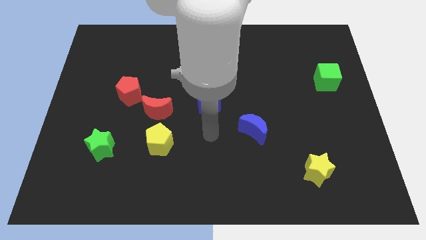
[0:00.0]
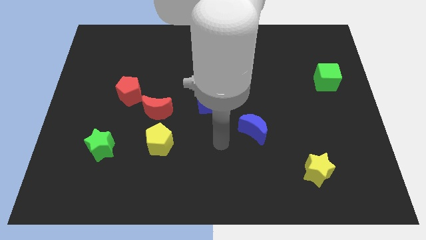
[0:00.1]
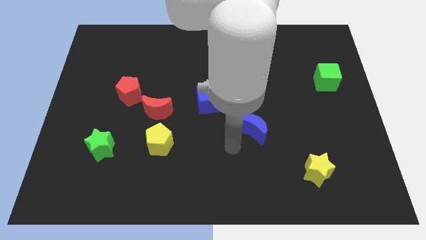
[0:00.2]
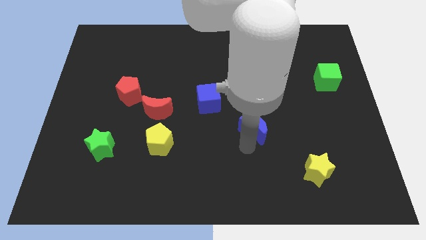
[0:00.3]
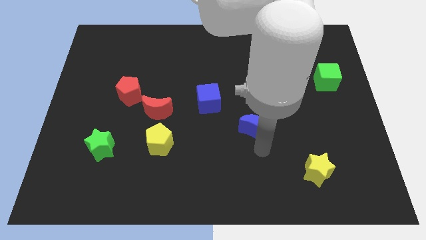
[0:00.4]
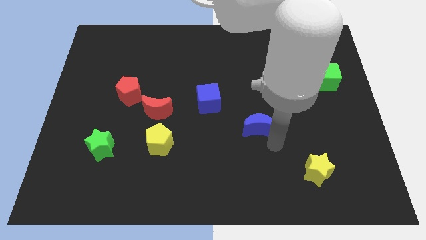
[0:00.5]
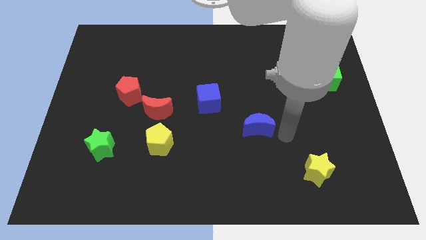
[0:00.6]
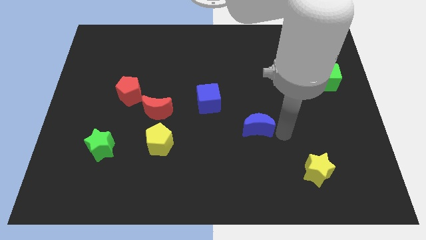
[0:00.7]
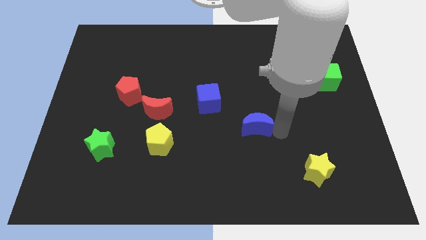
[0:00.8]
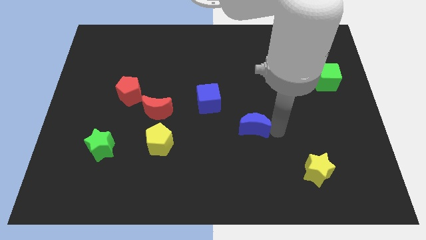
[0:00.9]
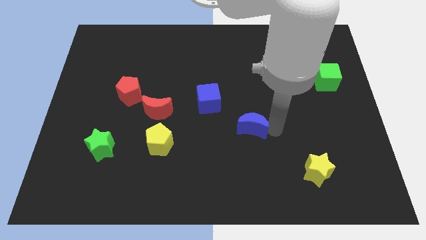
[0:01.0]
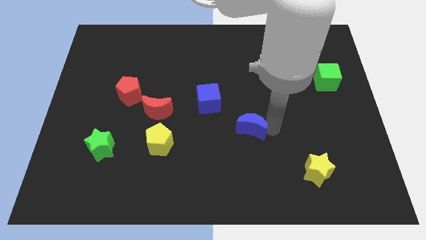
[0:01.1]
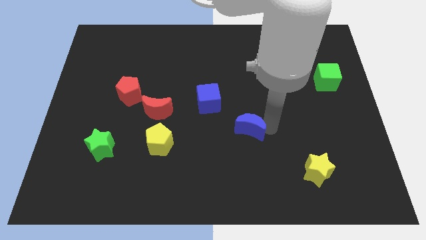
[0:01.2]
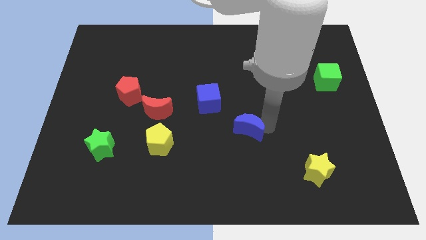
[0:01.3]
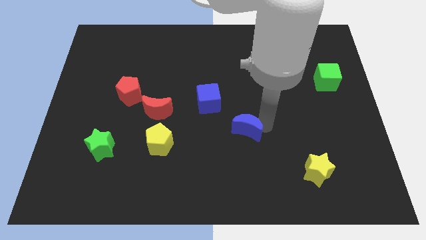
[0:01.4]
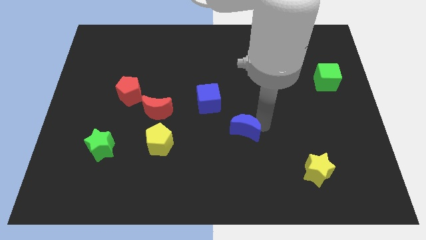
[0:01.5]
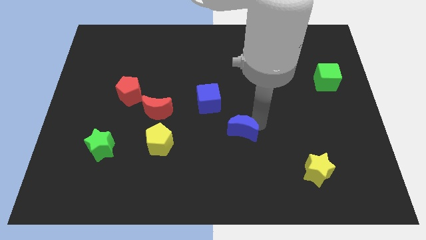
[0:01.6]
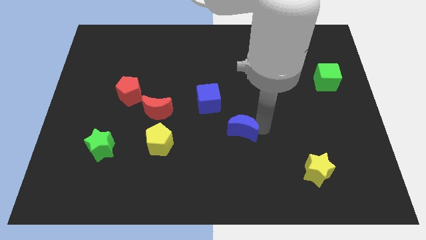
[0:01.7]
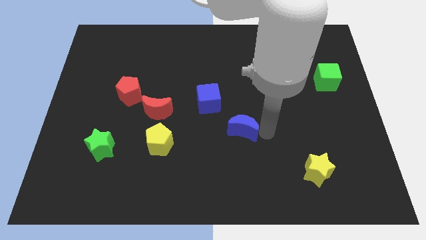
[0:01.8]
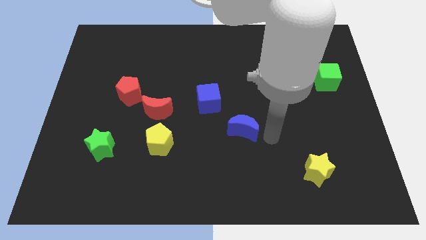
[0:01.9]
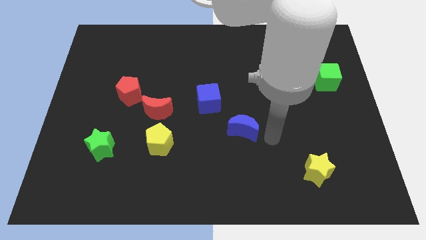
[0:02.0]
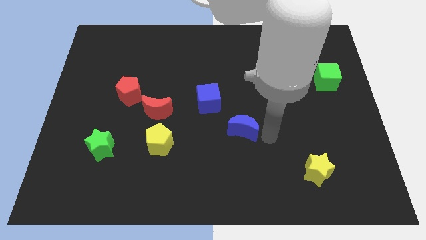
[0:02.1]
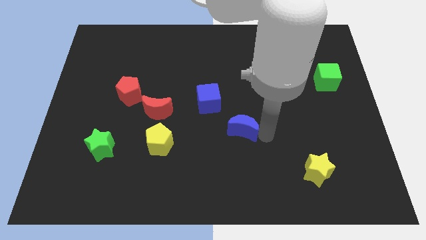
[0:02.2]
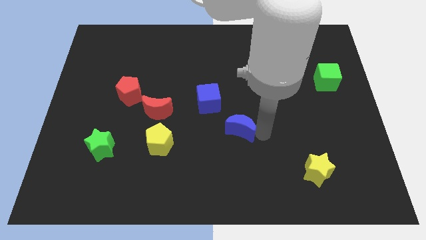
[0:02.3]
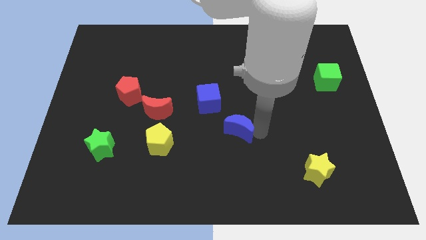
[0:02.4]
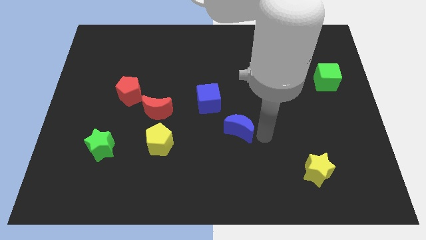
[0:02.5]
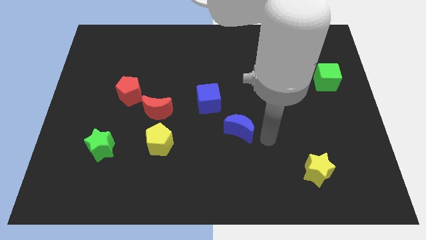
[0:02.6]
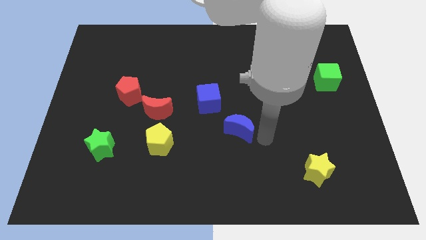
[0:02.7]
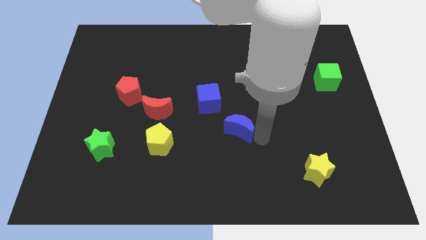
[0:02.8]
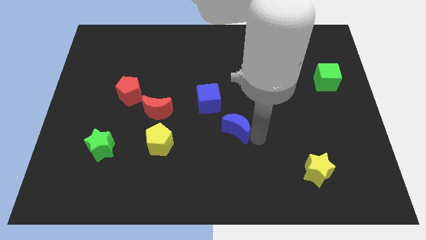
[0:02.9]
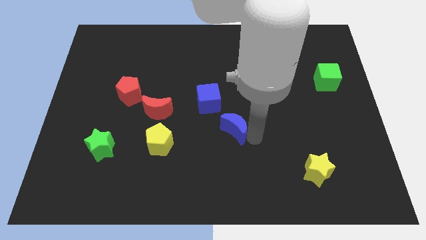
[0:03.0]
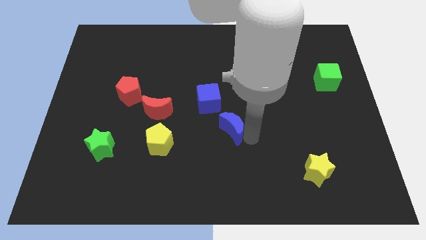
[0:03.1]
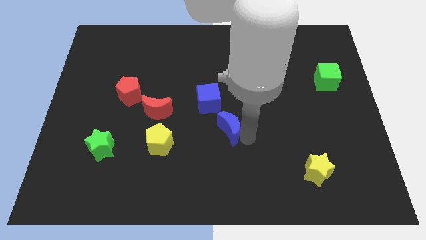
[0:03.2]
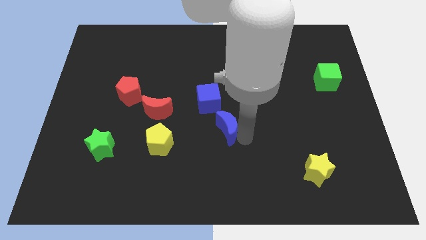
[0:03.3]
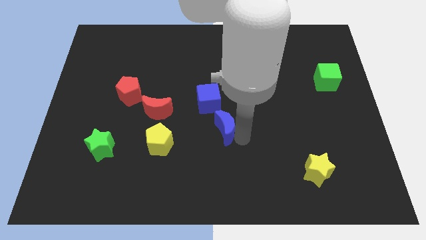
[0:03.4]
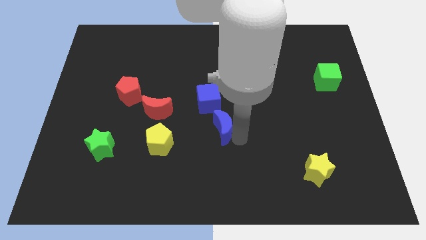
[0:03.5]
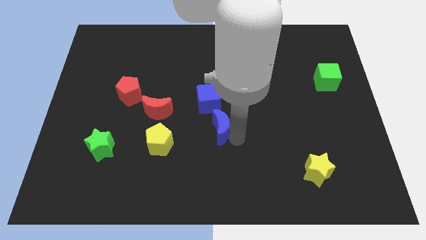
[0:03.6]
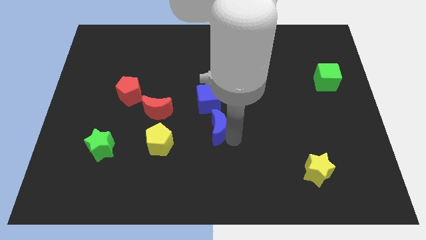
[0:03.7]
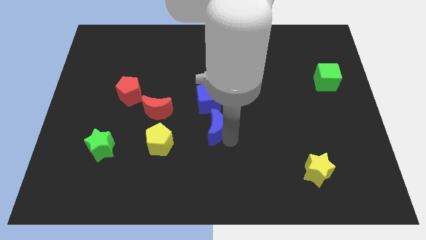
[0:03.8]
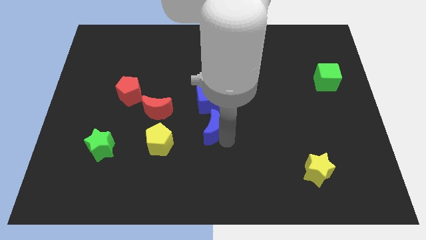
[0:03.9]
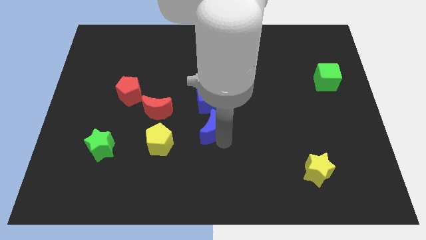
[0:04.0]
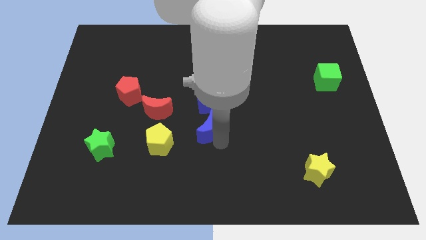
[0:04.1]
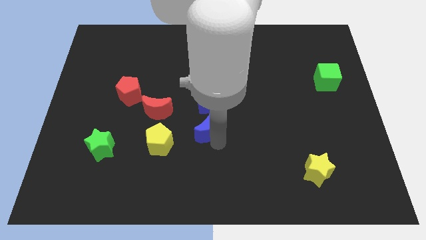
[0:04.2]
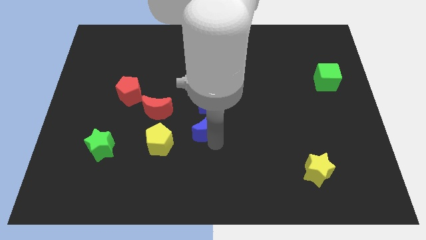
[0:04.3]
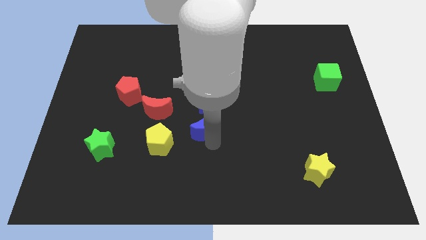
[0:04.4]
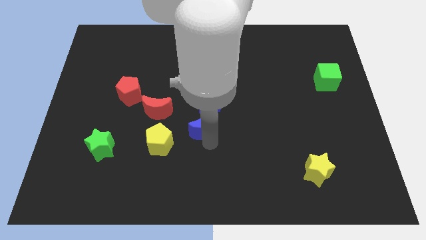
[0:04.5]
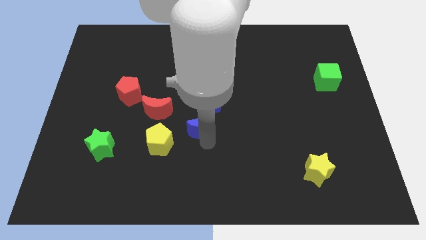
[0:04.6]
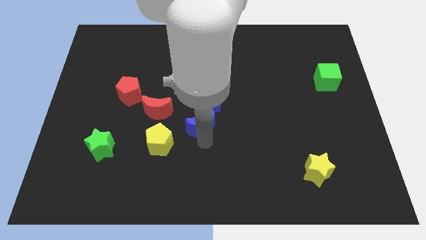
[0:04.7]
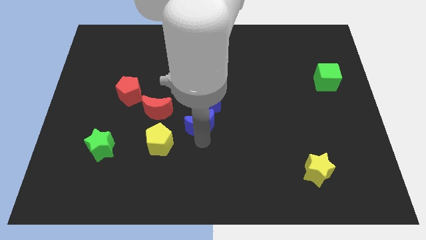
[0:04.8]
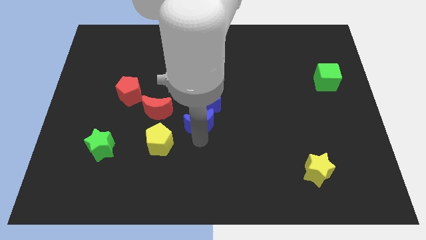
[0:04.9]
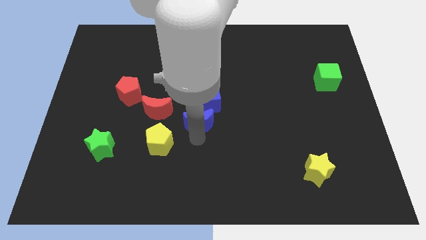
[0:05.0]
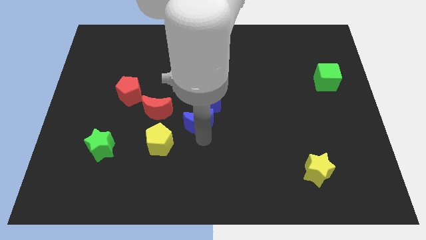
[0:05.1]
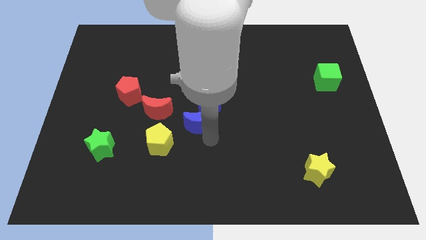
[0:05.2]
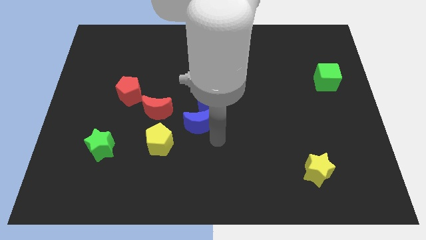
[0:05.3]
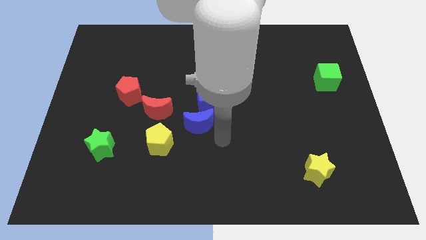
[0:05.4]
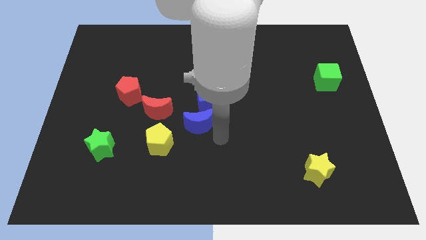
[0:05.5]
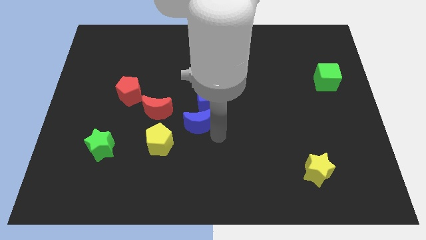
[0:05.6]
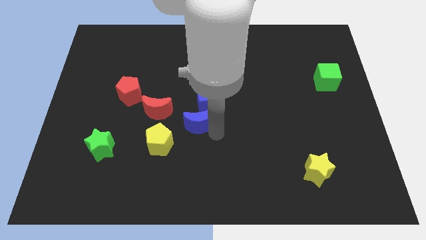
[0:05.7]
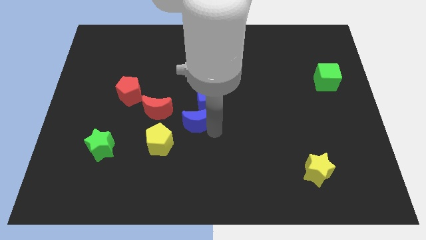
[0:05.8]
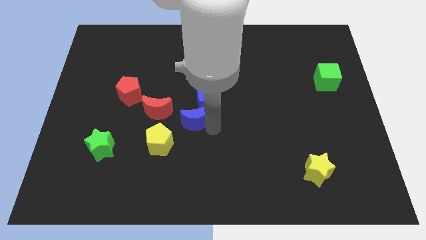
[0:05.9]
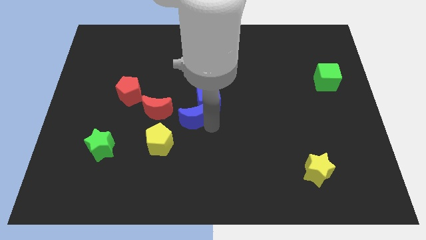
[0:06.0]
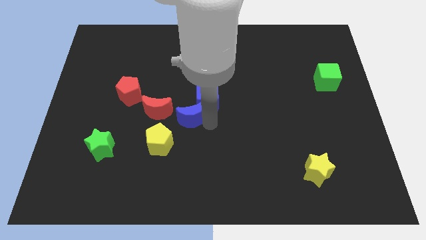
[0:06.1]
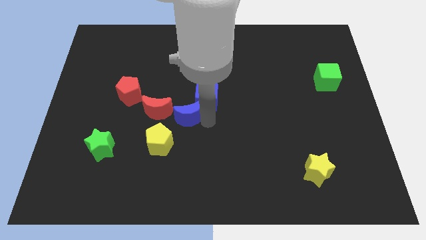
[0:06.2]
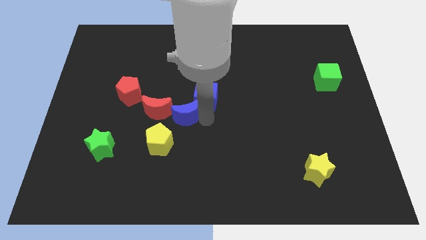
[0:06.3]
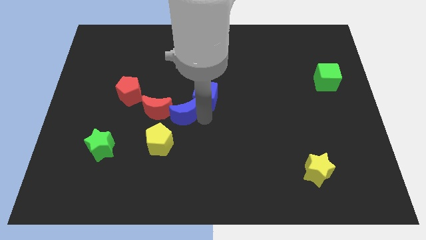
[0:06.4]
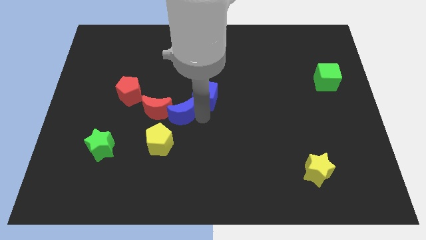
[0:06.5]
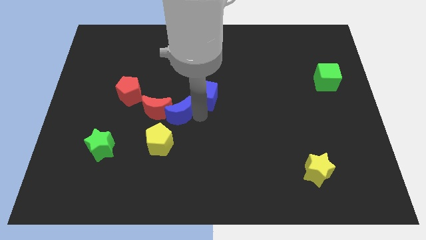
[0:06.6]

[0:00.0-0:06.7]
put the blue moon next to the red moon
